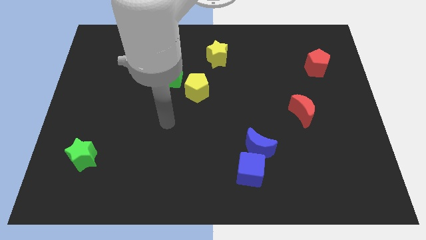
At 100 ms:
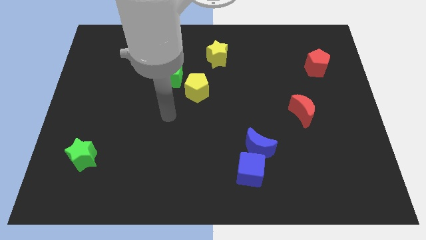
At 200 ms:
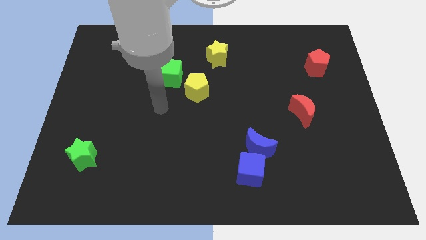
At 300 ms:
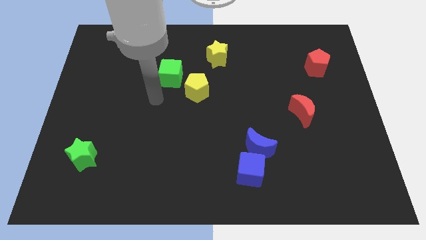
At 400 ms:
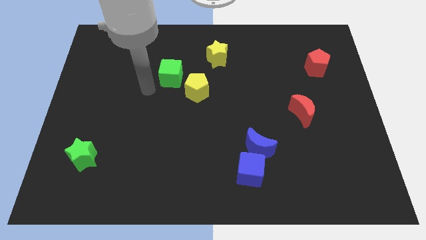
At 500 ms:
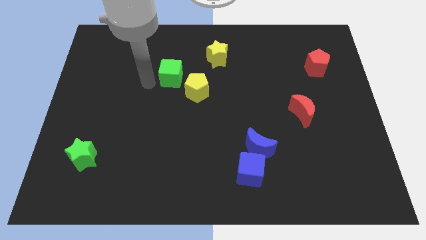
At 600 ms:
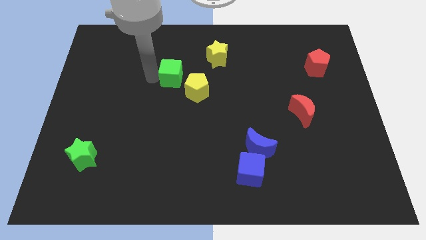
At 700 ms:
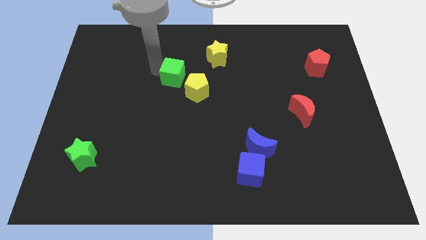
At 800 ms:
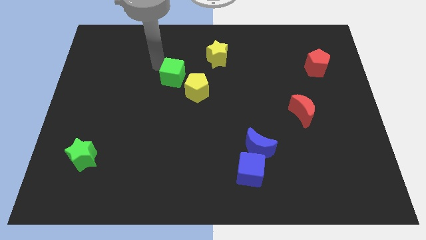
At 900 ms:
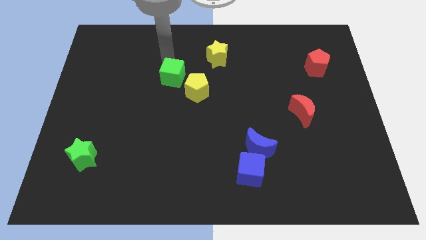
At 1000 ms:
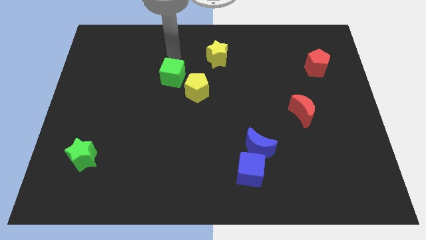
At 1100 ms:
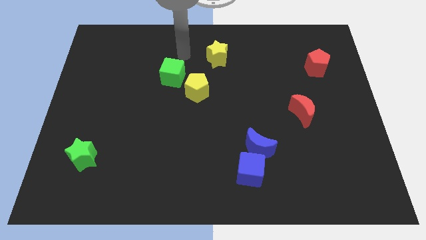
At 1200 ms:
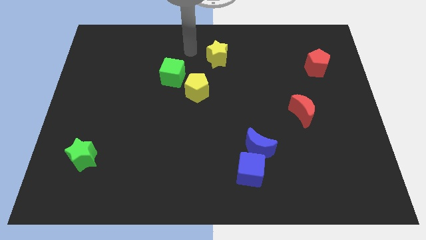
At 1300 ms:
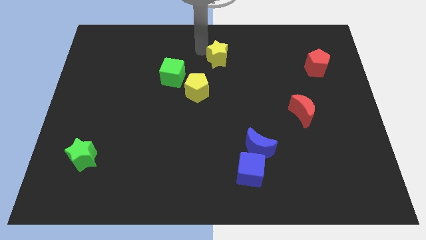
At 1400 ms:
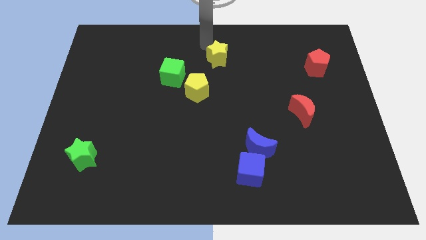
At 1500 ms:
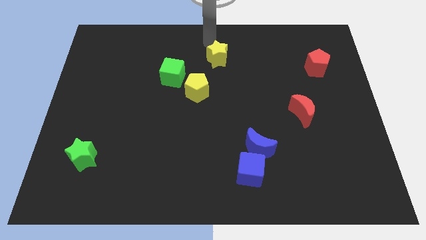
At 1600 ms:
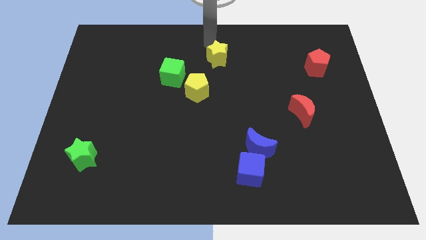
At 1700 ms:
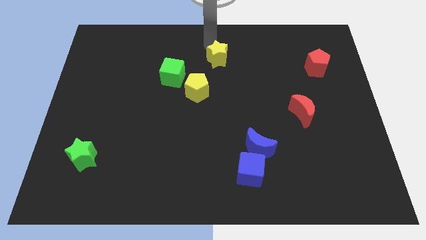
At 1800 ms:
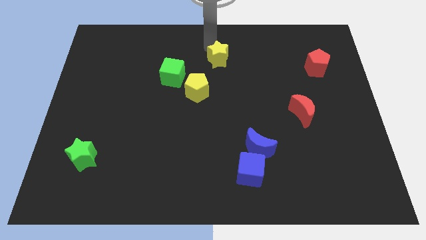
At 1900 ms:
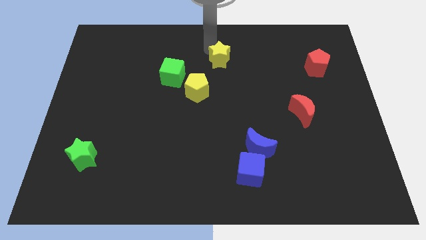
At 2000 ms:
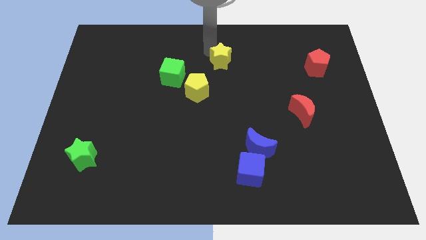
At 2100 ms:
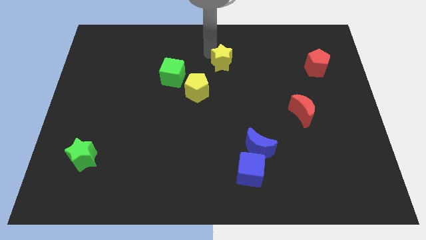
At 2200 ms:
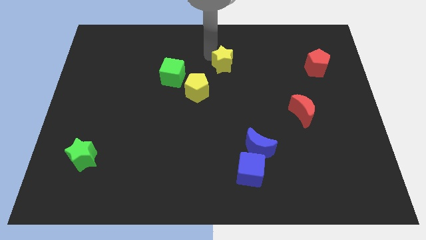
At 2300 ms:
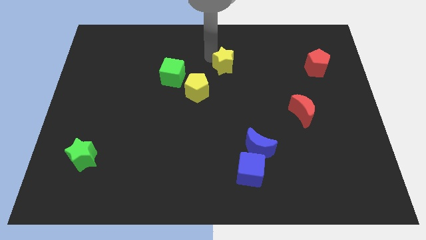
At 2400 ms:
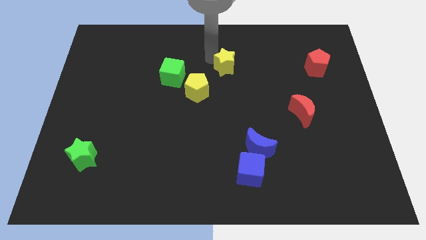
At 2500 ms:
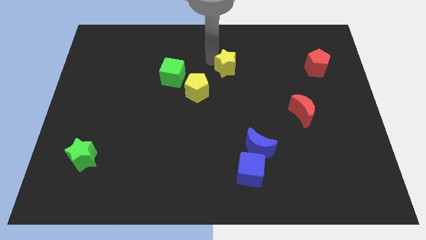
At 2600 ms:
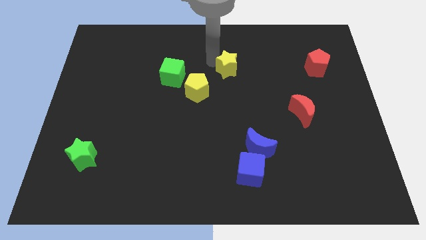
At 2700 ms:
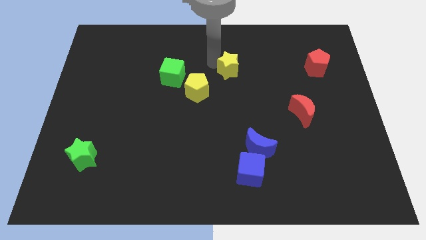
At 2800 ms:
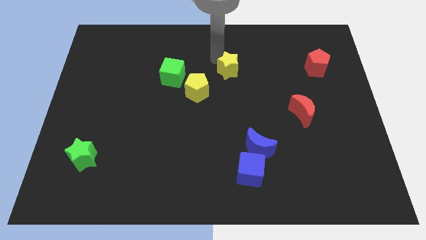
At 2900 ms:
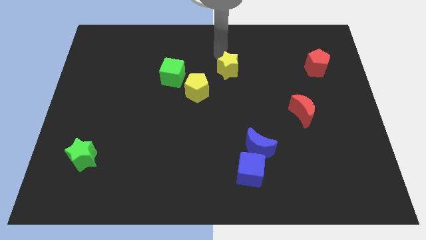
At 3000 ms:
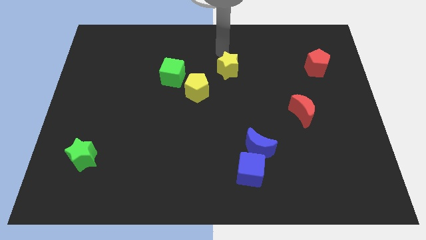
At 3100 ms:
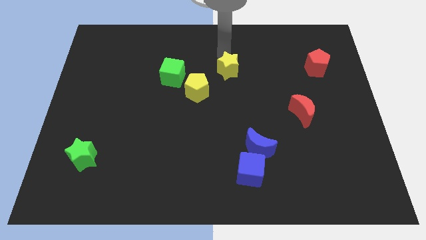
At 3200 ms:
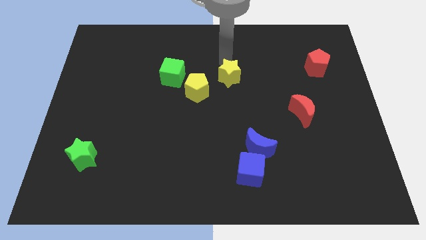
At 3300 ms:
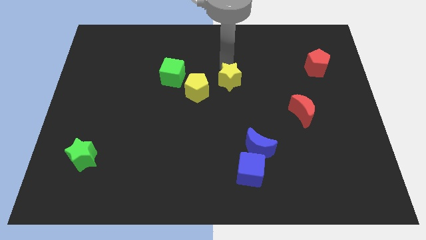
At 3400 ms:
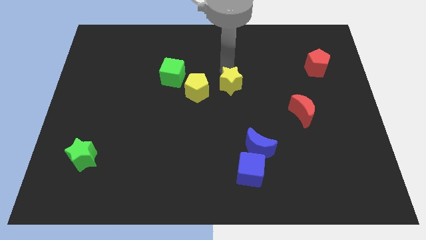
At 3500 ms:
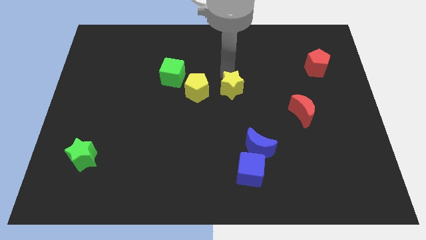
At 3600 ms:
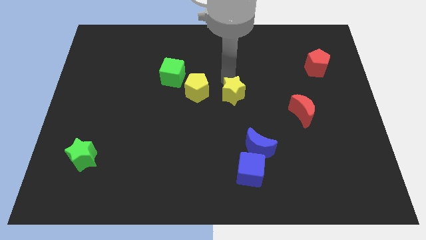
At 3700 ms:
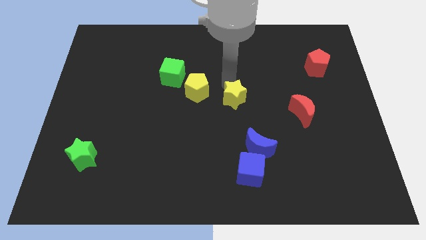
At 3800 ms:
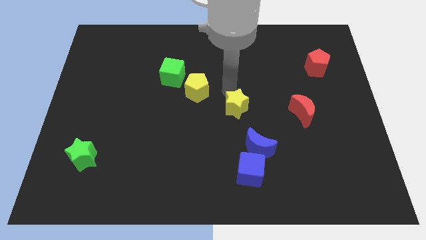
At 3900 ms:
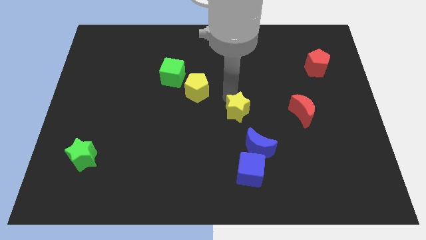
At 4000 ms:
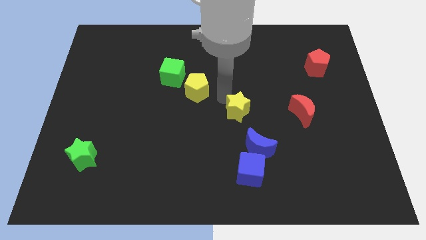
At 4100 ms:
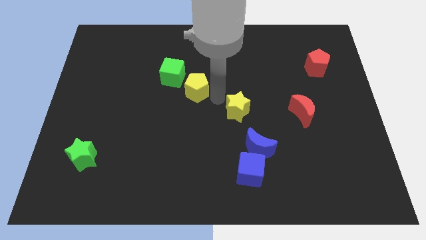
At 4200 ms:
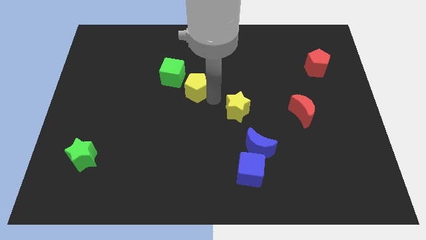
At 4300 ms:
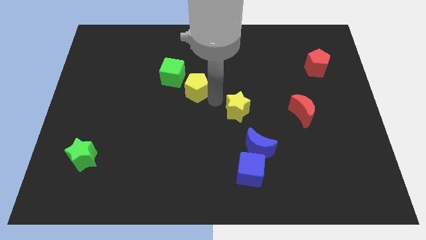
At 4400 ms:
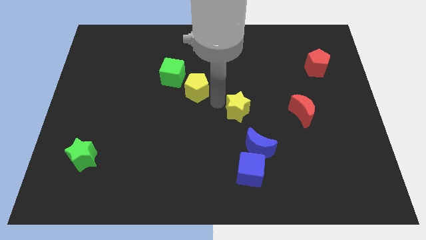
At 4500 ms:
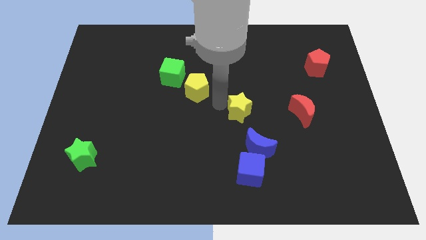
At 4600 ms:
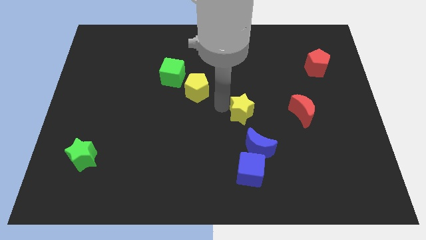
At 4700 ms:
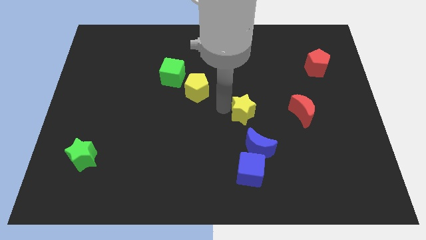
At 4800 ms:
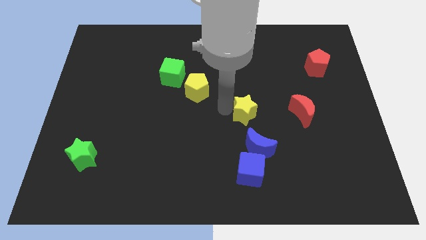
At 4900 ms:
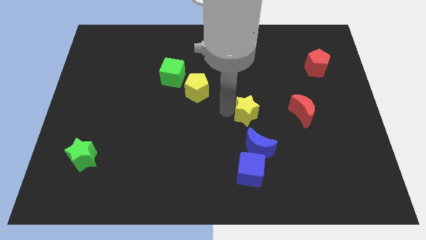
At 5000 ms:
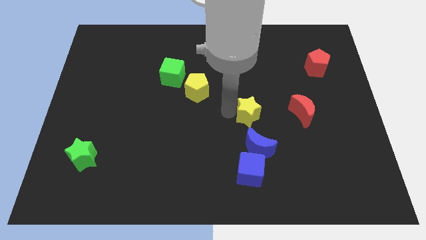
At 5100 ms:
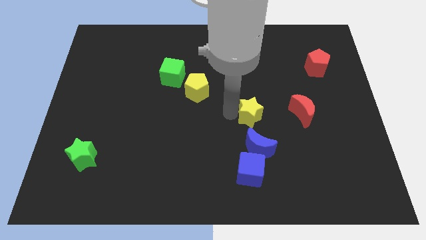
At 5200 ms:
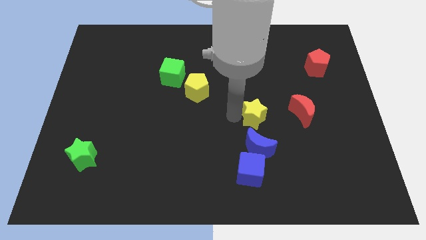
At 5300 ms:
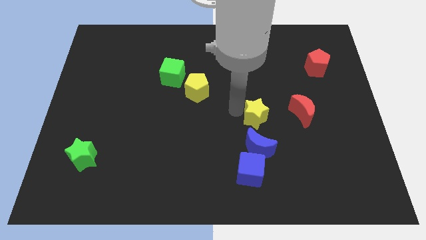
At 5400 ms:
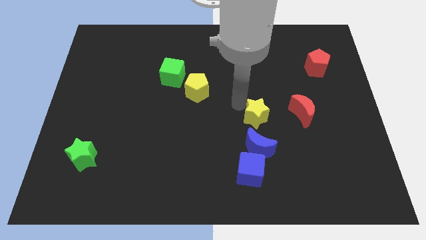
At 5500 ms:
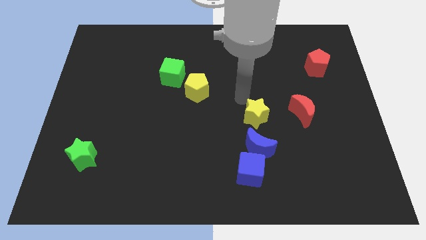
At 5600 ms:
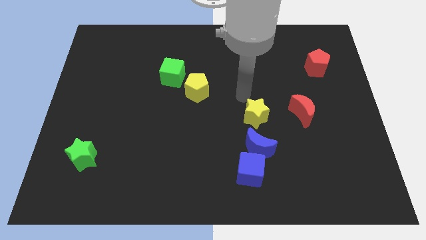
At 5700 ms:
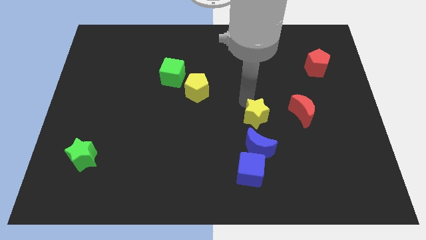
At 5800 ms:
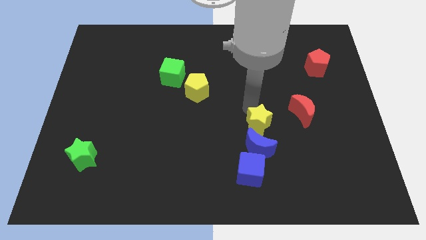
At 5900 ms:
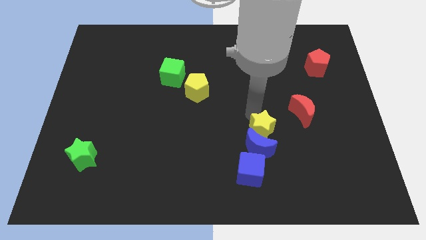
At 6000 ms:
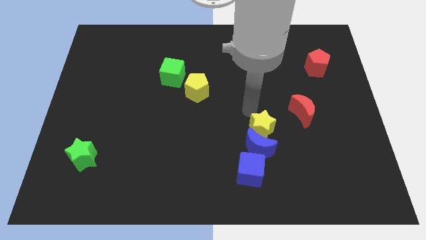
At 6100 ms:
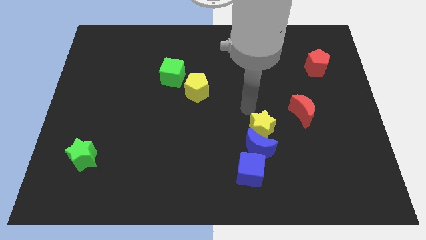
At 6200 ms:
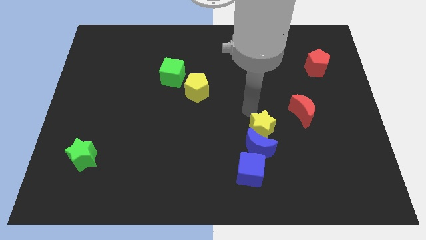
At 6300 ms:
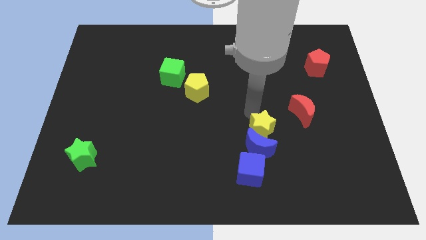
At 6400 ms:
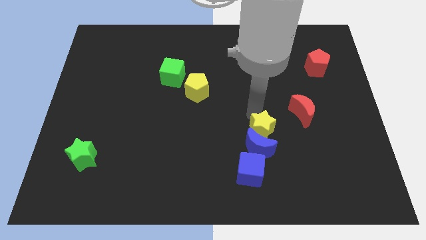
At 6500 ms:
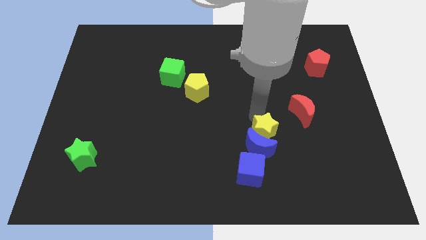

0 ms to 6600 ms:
move the yellow star to the top right side of the blue cube

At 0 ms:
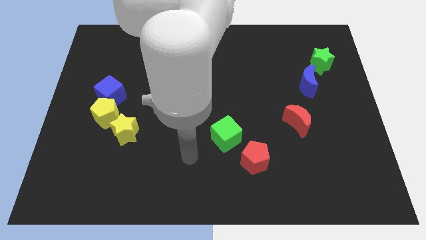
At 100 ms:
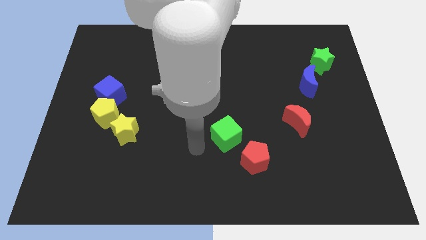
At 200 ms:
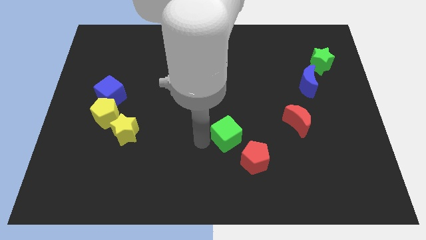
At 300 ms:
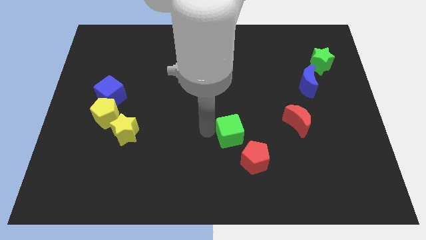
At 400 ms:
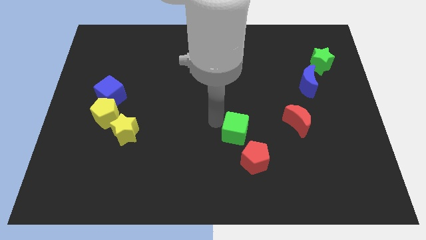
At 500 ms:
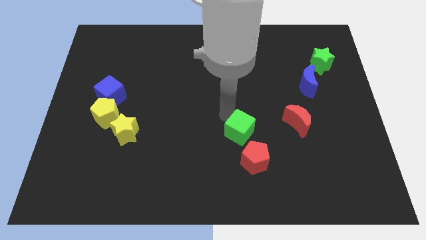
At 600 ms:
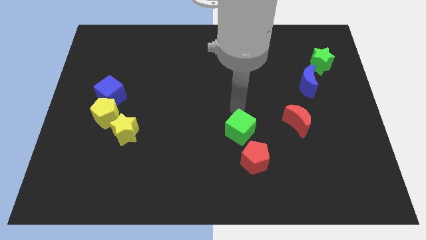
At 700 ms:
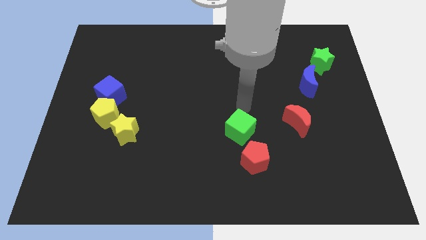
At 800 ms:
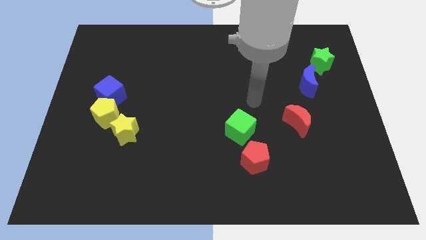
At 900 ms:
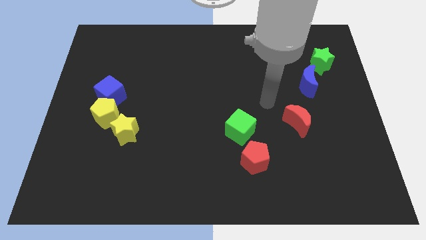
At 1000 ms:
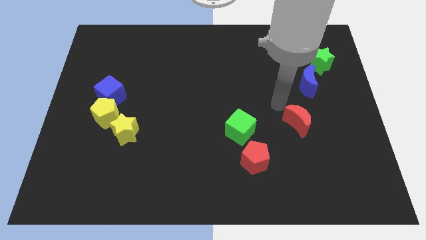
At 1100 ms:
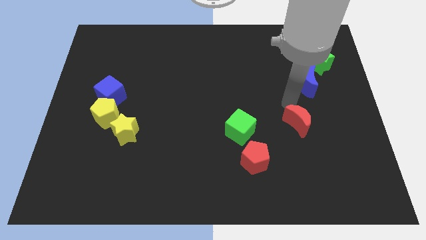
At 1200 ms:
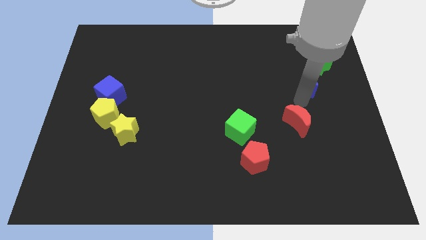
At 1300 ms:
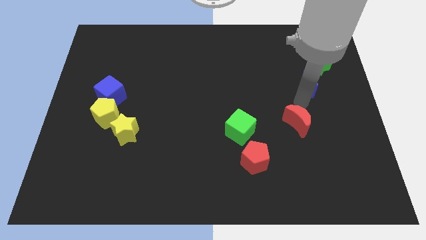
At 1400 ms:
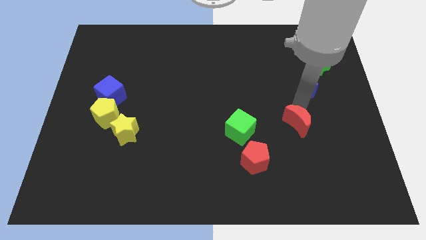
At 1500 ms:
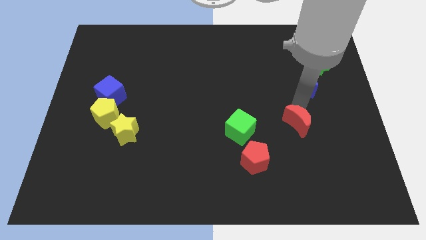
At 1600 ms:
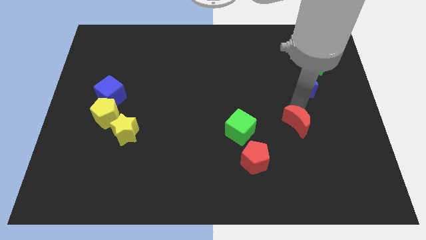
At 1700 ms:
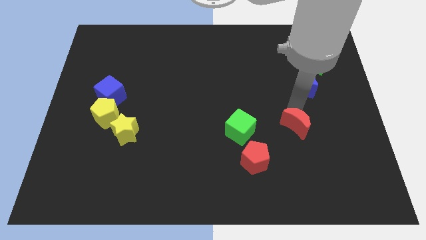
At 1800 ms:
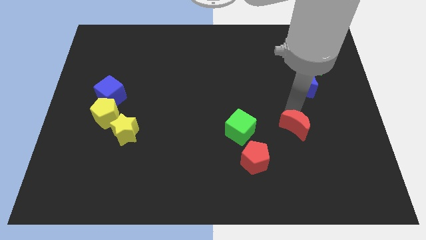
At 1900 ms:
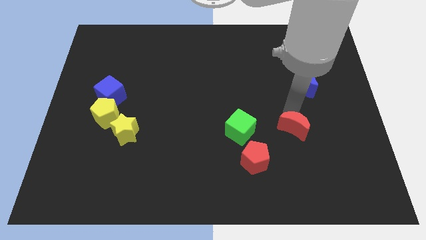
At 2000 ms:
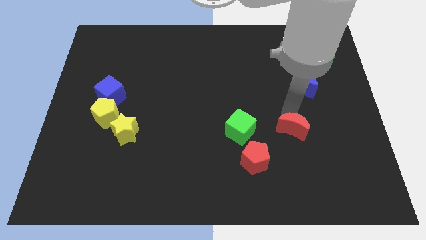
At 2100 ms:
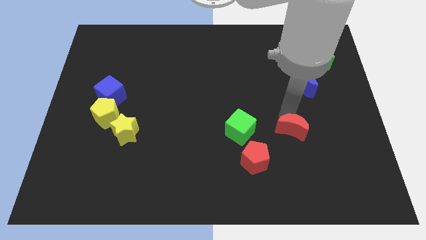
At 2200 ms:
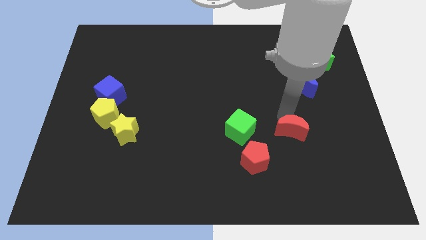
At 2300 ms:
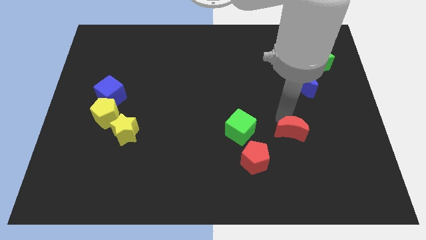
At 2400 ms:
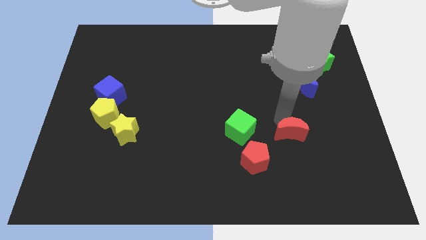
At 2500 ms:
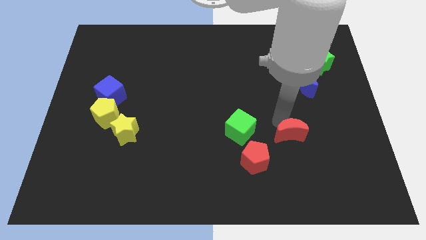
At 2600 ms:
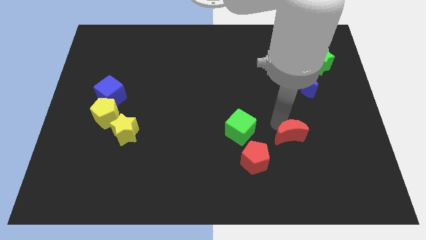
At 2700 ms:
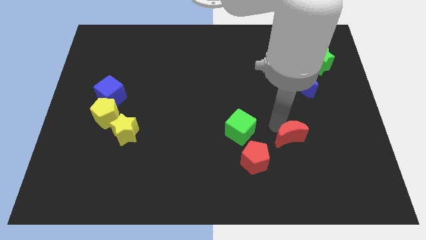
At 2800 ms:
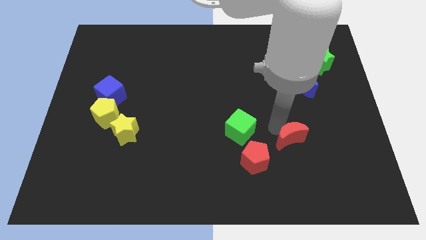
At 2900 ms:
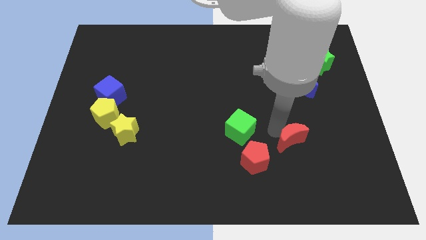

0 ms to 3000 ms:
push the red moon to the right of the red pentagon
